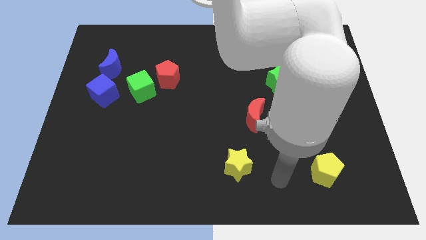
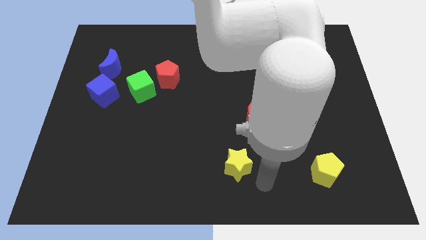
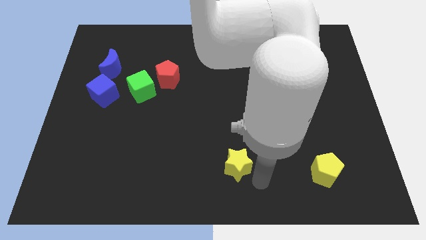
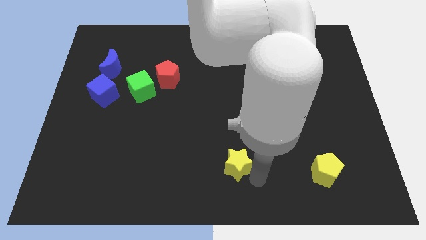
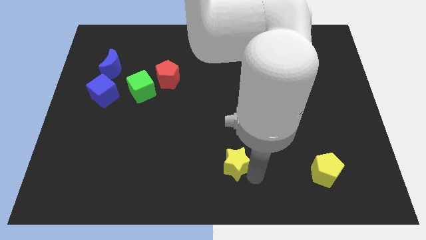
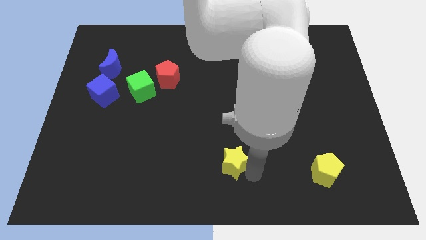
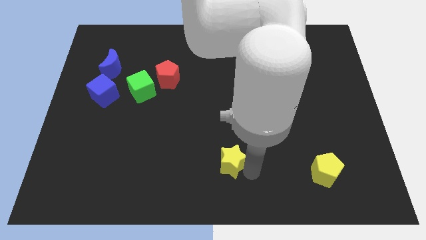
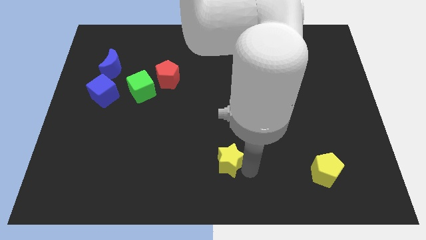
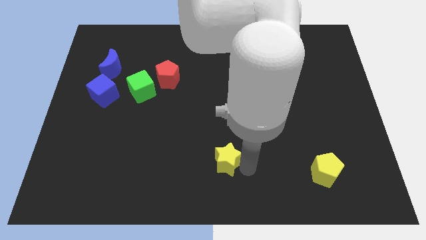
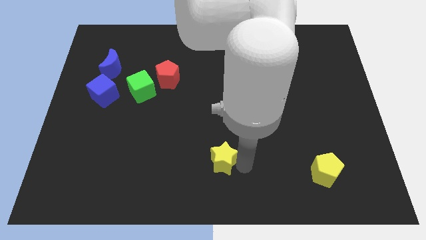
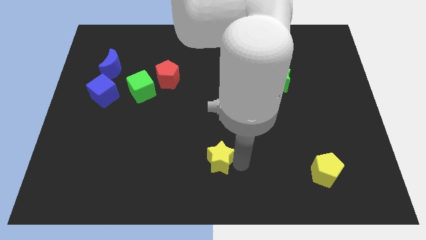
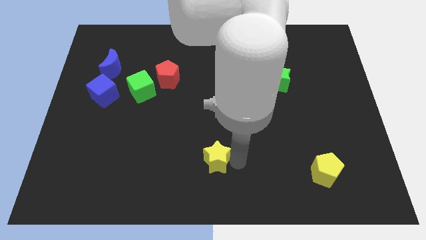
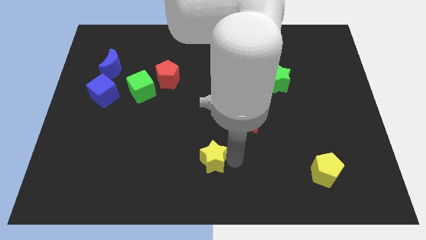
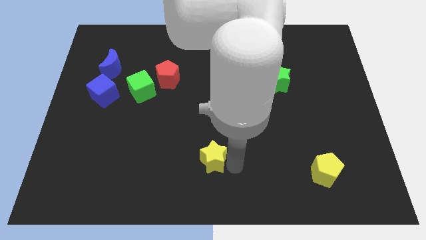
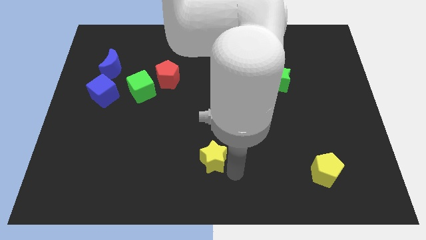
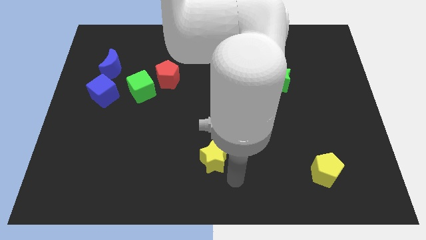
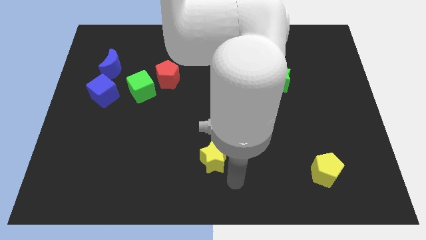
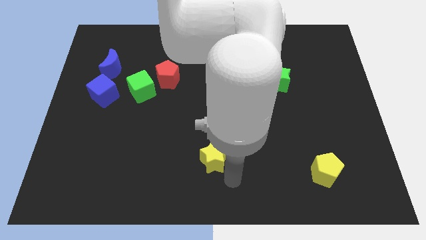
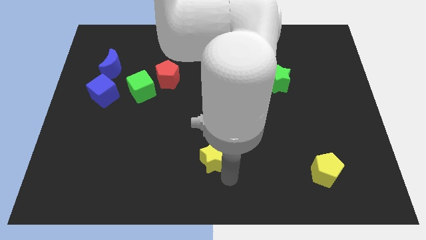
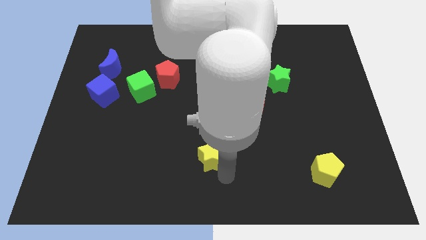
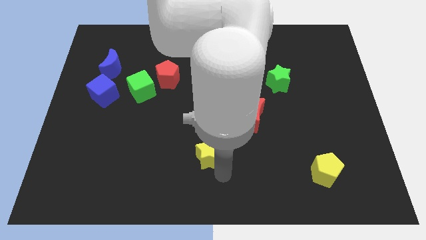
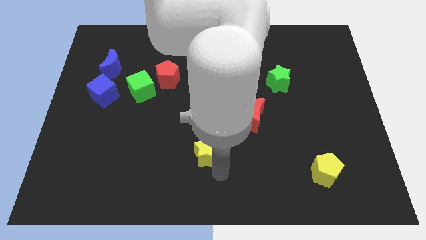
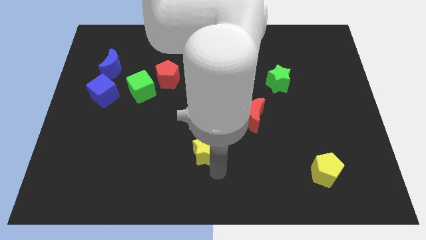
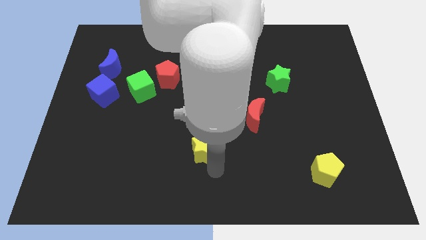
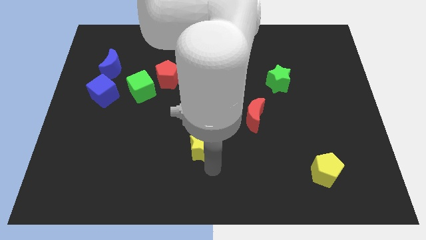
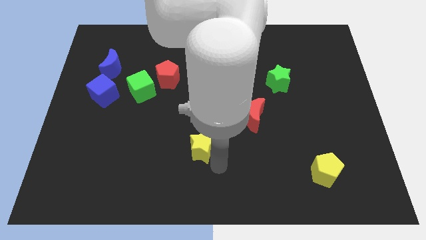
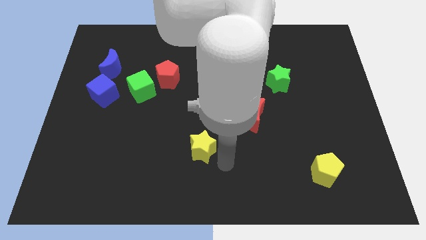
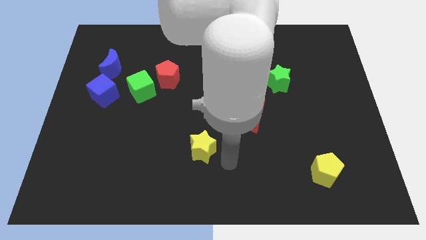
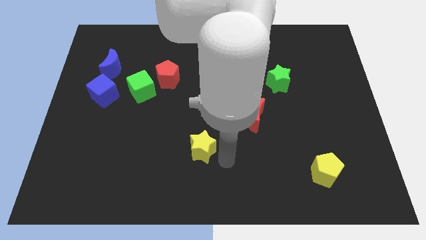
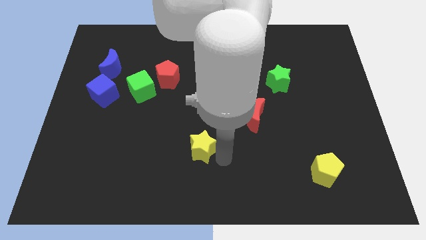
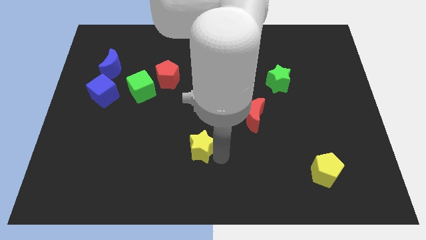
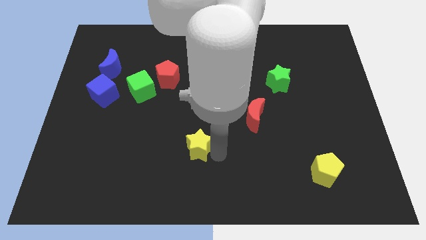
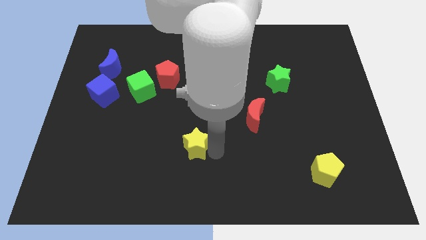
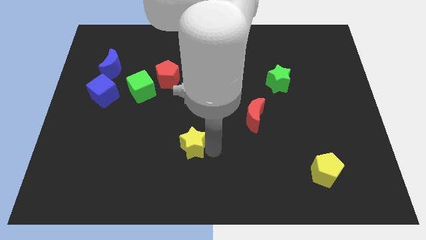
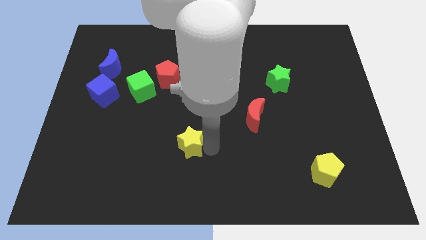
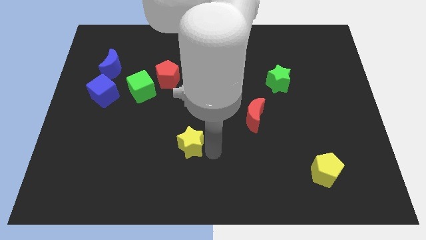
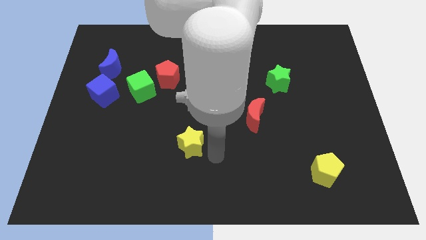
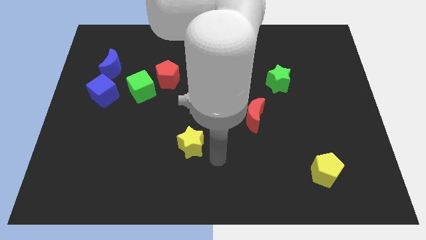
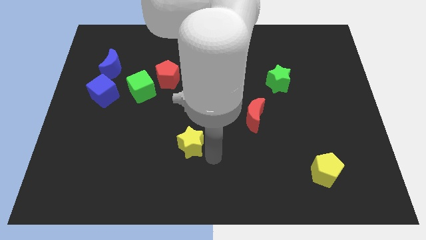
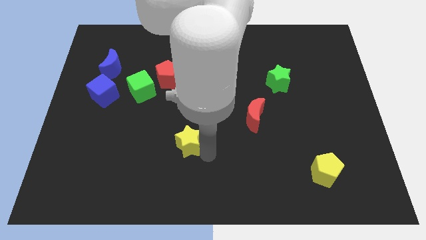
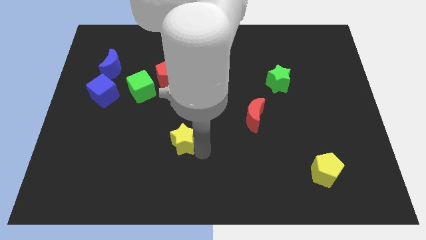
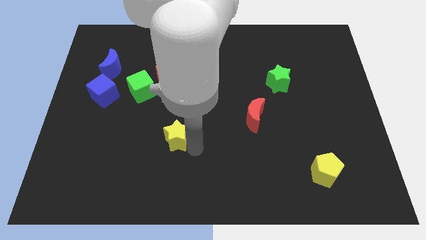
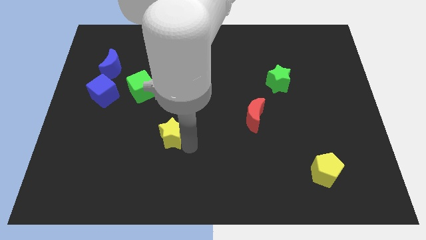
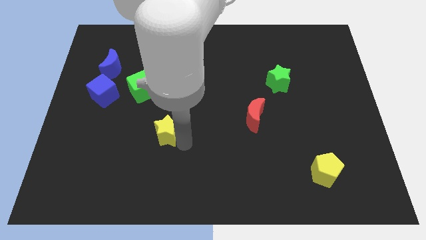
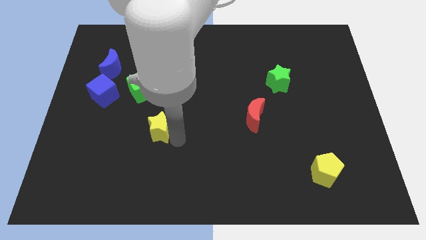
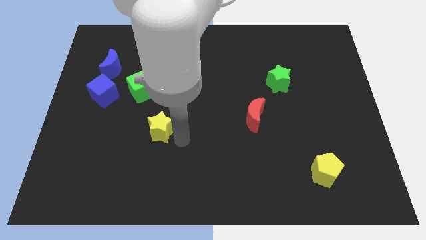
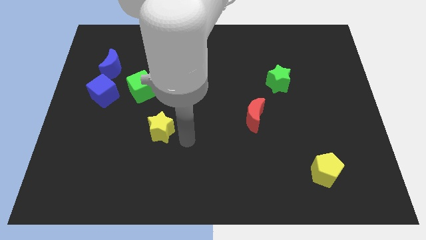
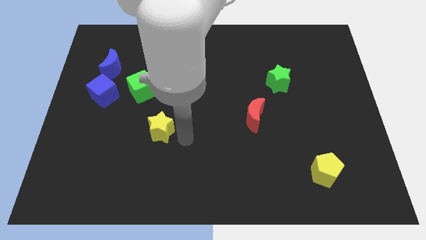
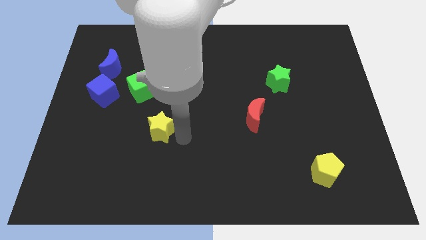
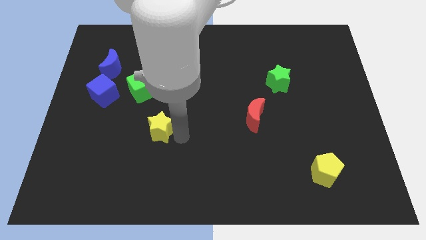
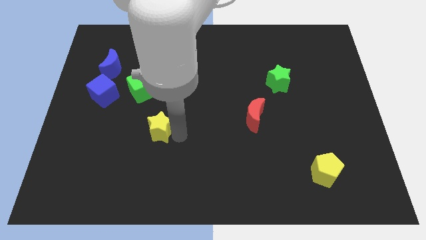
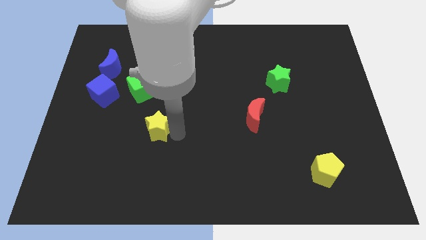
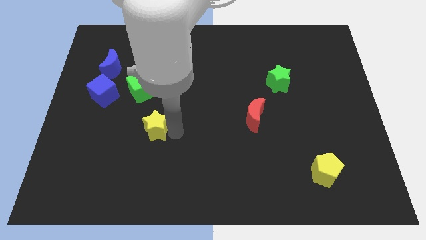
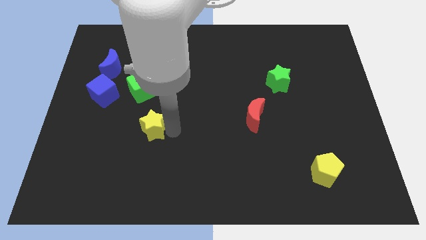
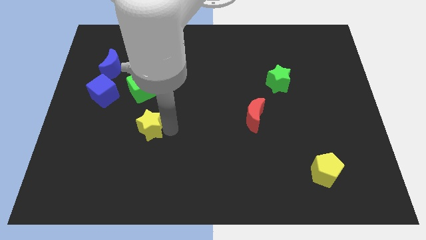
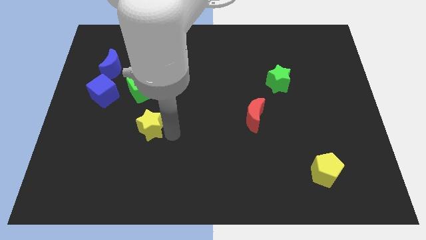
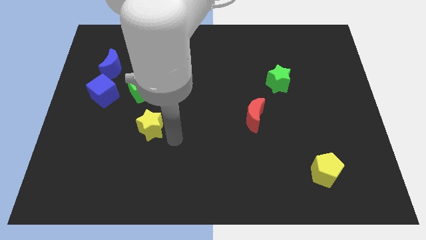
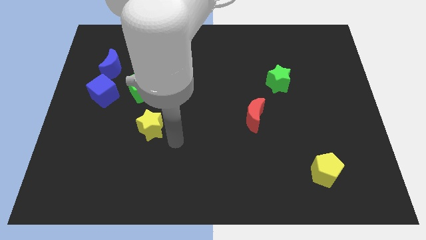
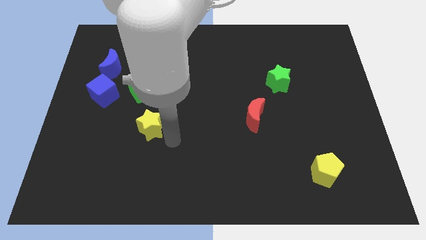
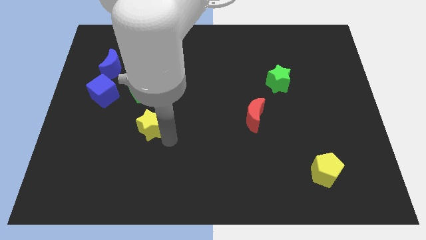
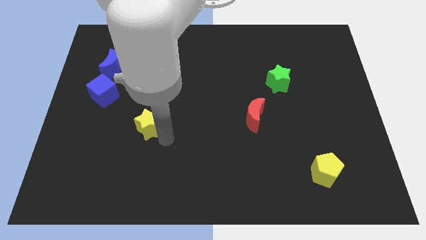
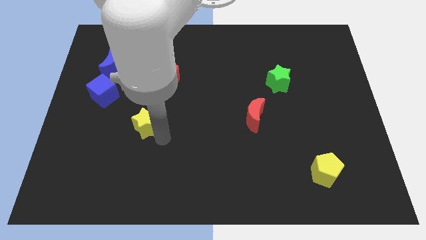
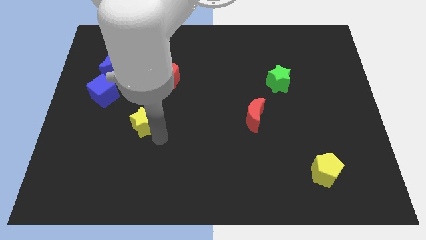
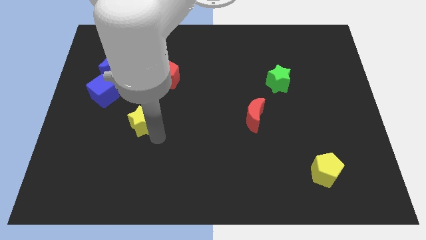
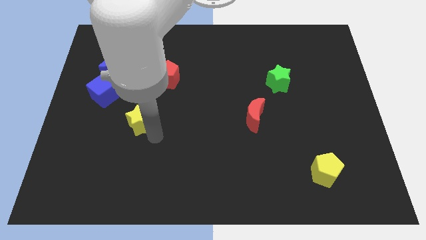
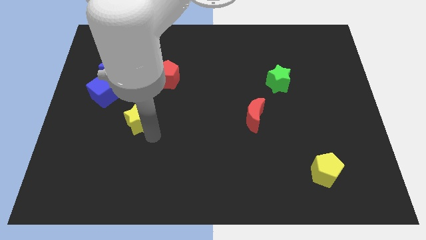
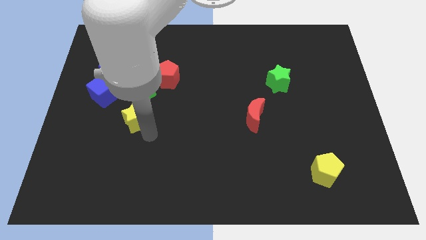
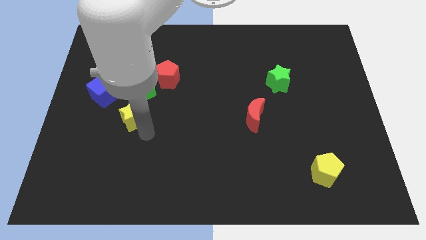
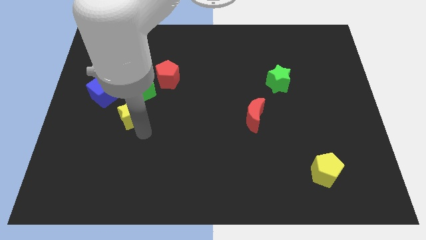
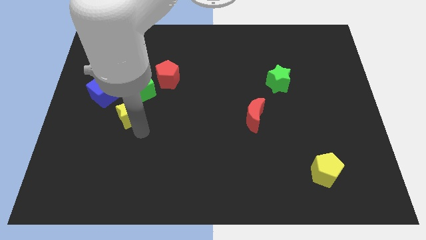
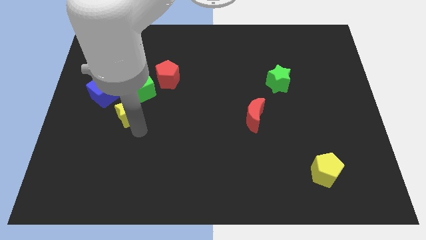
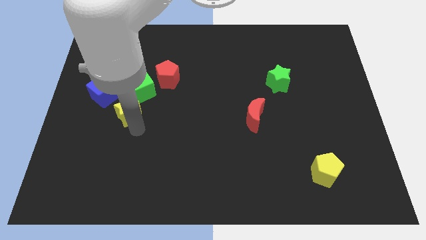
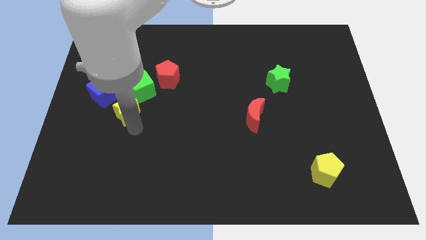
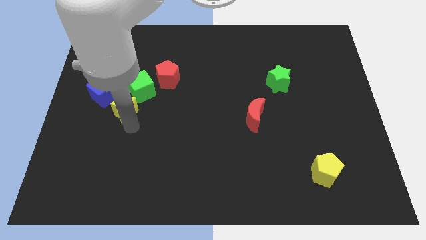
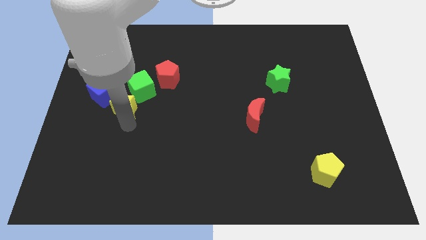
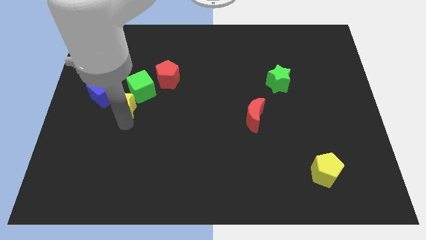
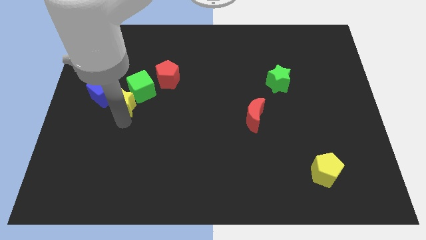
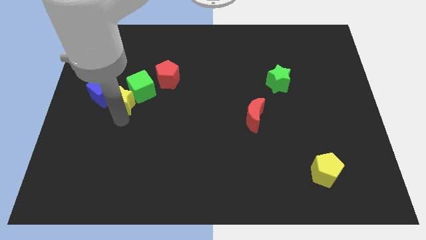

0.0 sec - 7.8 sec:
put the yellow star next to the blue cube

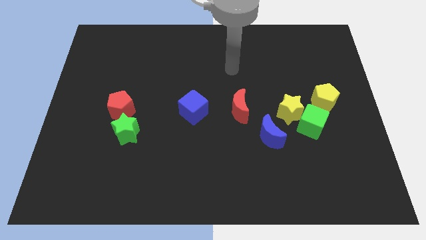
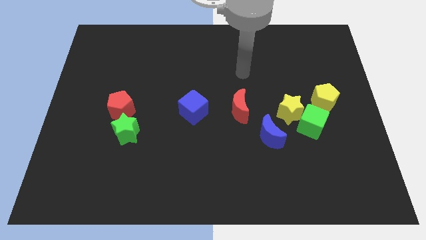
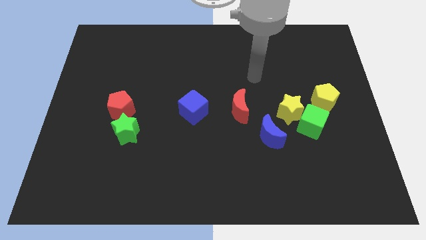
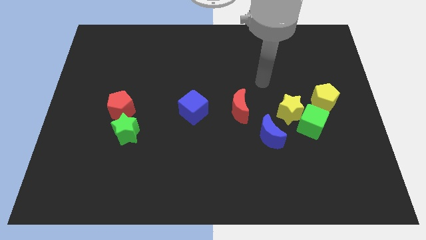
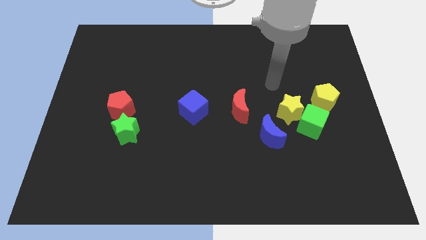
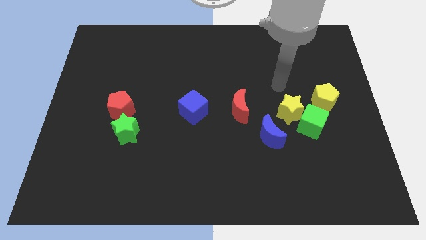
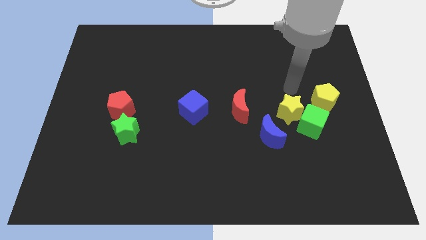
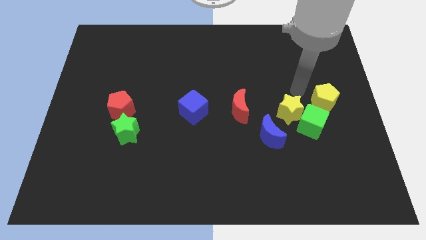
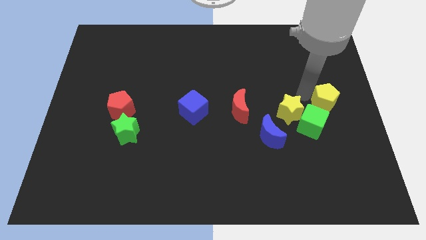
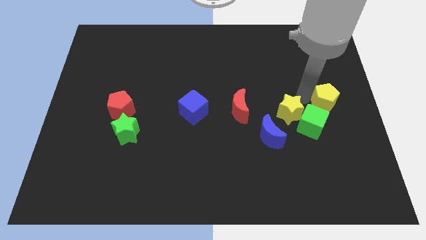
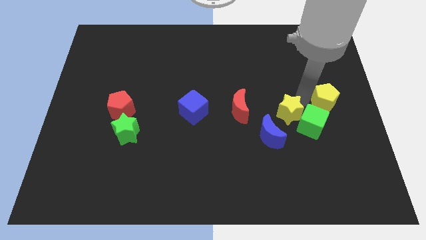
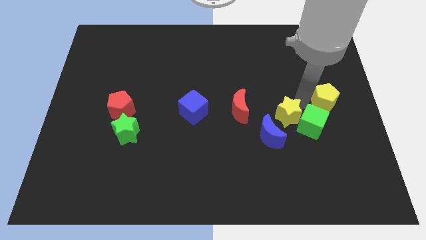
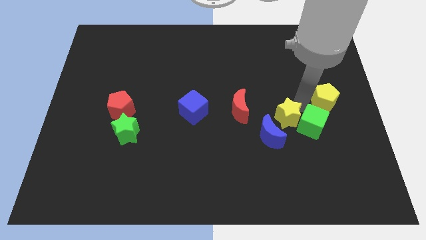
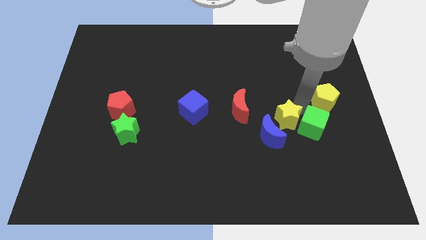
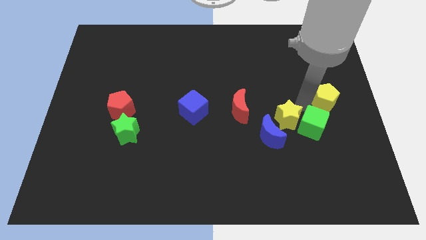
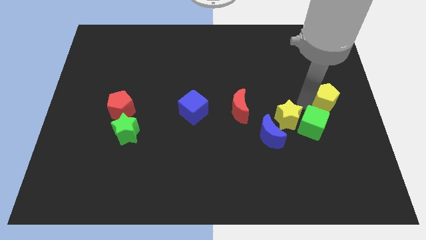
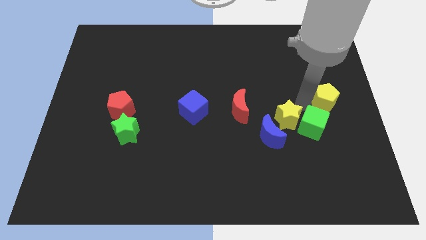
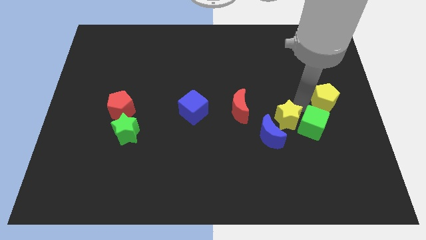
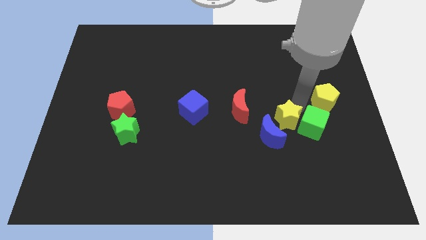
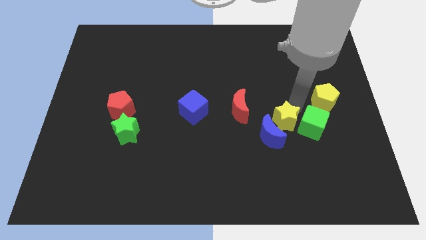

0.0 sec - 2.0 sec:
slide the yellow star close to the blue moon
